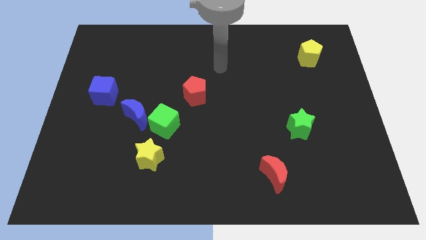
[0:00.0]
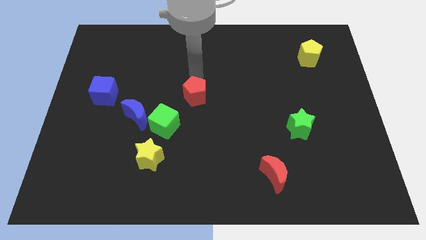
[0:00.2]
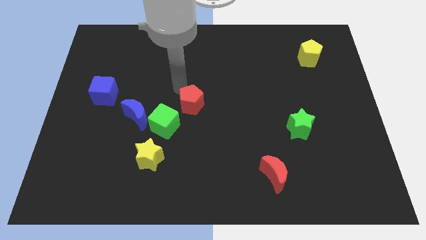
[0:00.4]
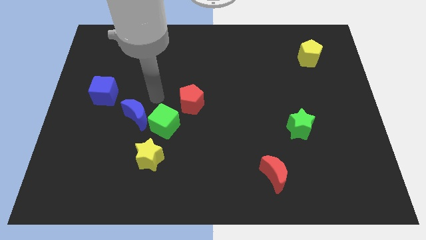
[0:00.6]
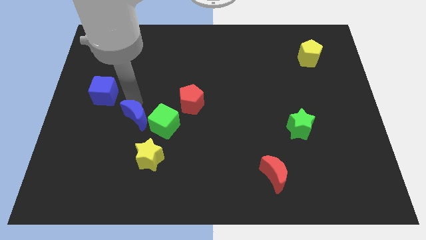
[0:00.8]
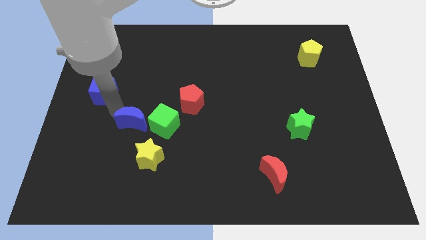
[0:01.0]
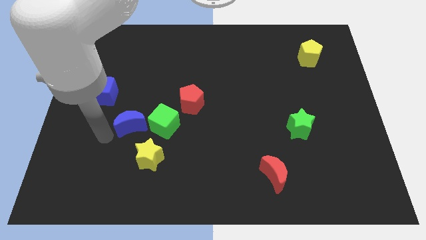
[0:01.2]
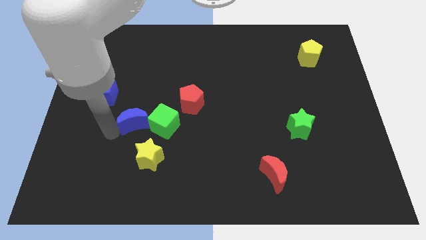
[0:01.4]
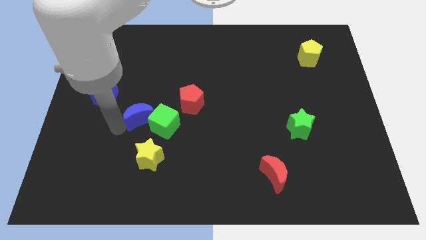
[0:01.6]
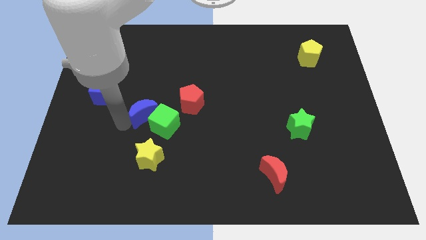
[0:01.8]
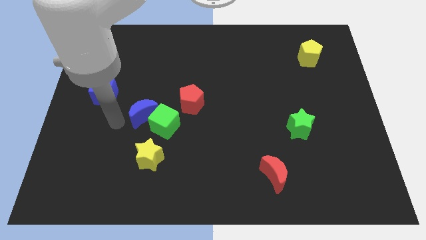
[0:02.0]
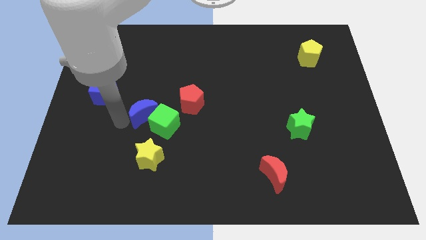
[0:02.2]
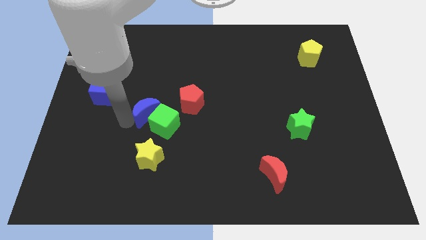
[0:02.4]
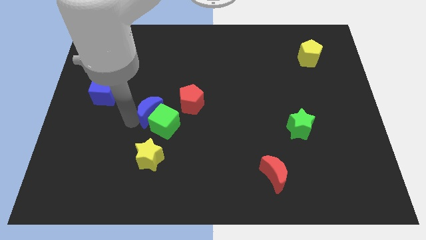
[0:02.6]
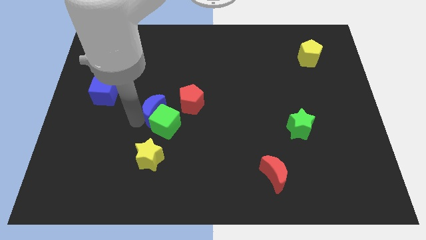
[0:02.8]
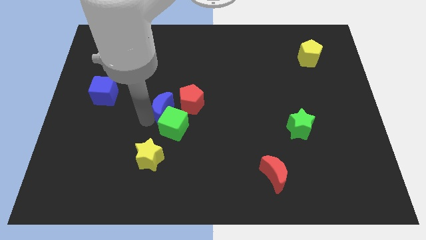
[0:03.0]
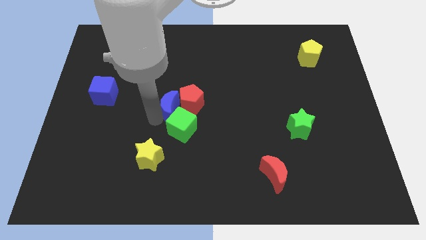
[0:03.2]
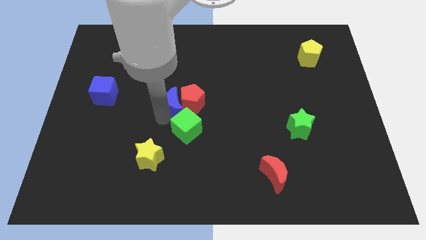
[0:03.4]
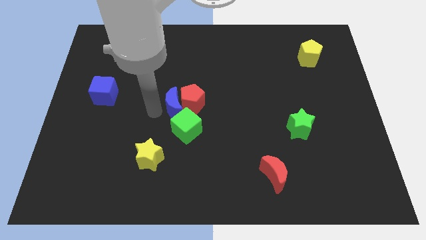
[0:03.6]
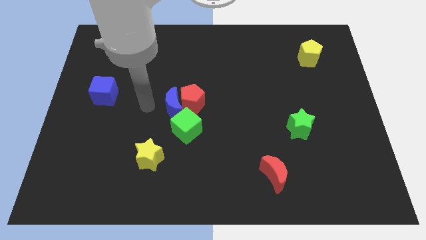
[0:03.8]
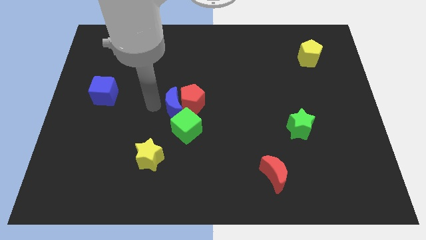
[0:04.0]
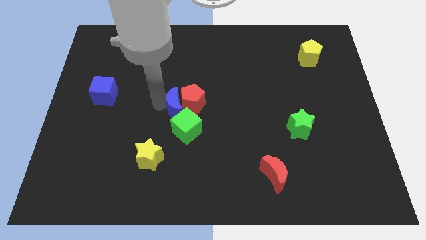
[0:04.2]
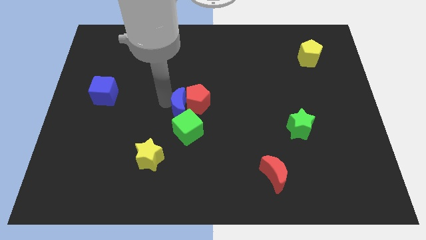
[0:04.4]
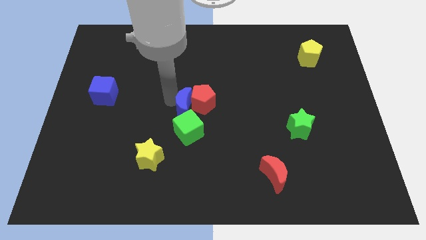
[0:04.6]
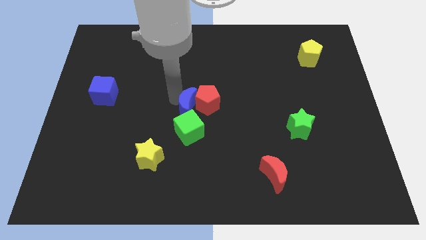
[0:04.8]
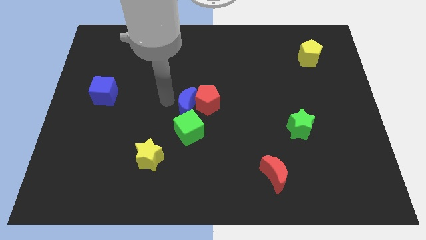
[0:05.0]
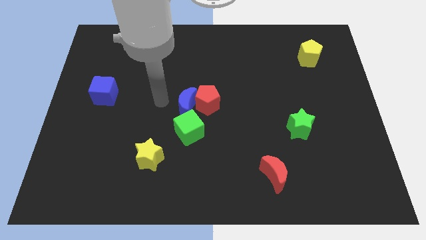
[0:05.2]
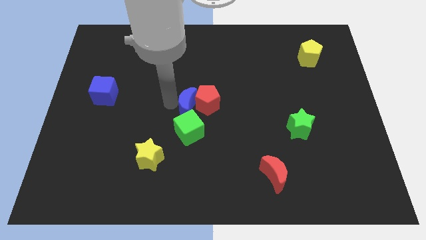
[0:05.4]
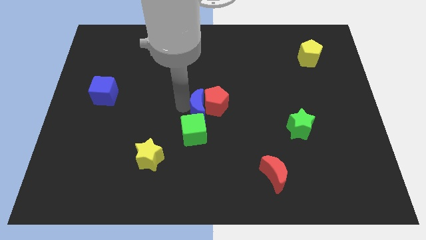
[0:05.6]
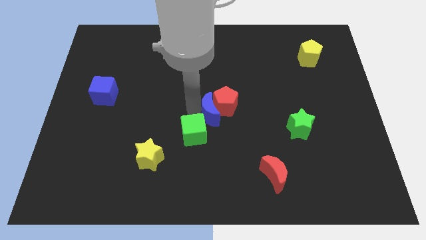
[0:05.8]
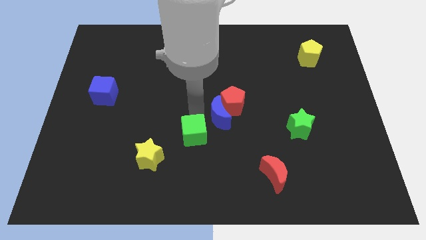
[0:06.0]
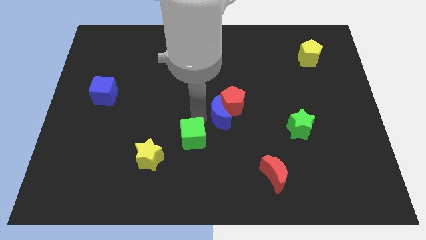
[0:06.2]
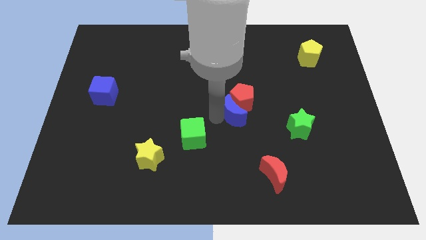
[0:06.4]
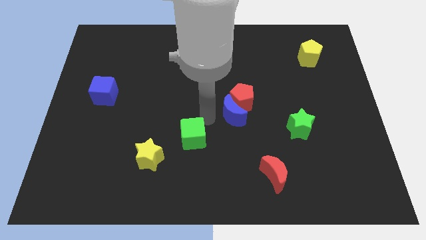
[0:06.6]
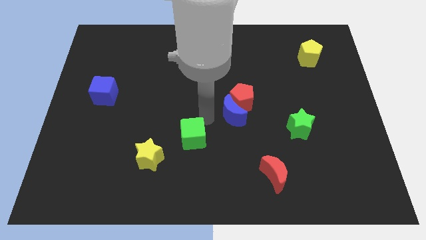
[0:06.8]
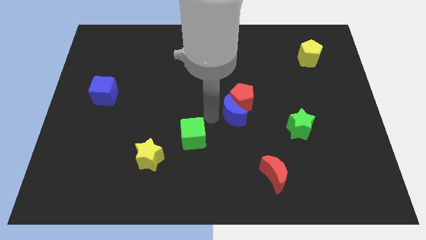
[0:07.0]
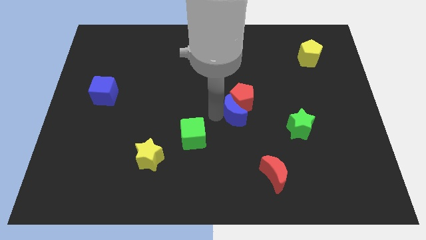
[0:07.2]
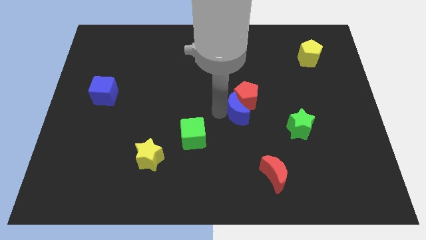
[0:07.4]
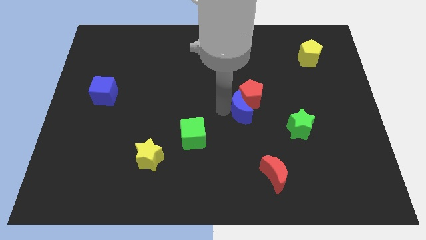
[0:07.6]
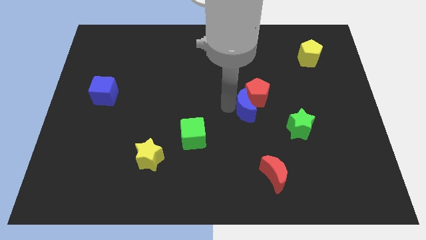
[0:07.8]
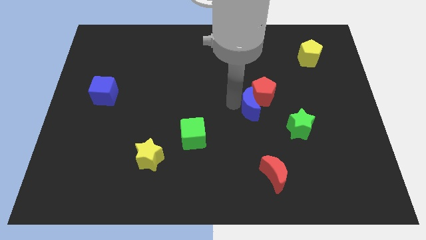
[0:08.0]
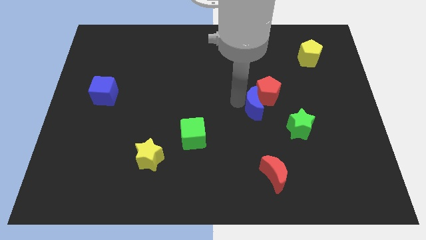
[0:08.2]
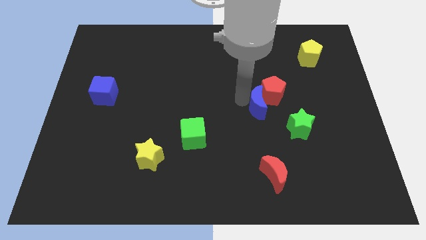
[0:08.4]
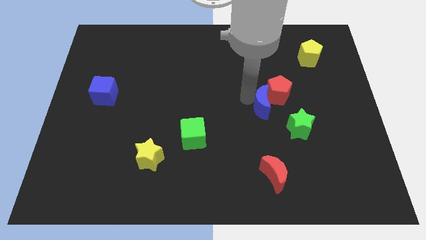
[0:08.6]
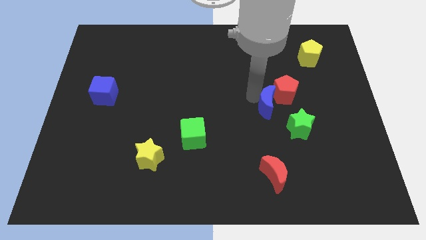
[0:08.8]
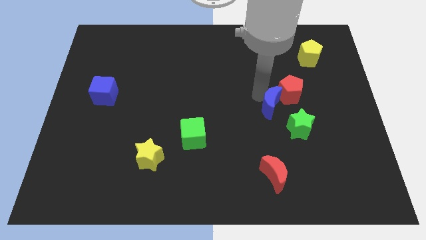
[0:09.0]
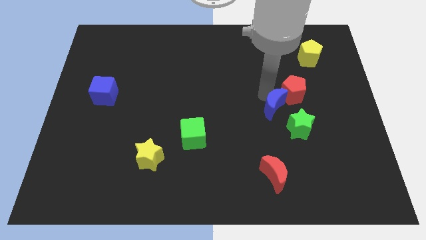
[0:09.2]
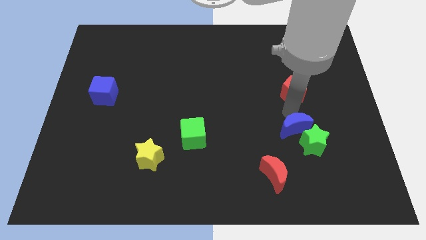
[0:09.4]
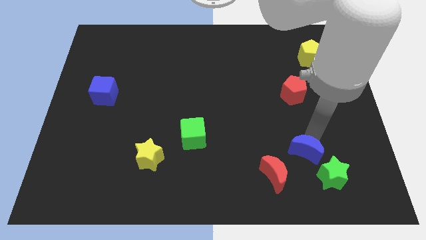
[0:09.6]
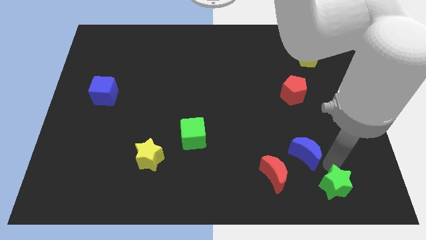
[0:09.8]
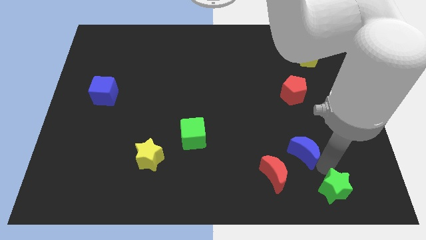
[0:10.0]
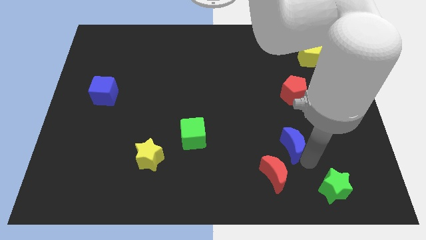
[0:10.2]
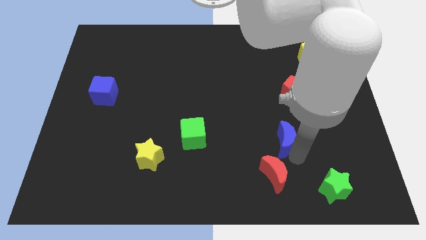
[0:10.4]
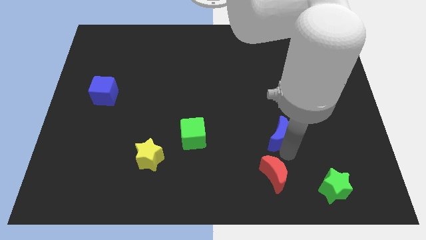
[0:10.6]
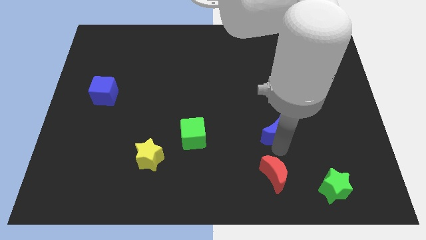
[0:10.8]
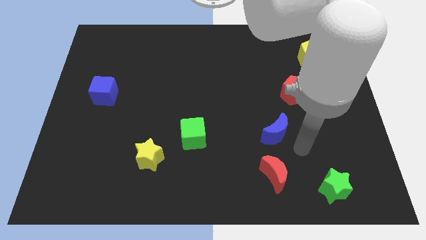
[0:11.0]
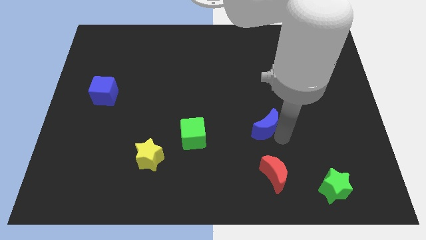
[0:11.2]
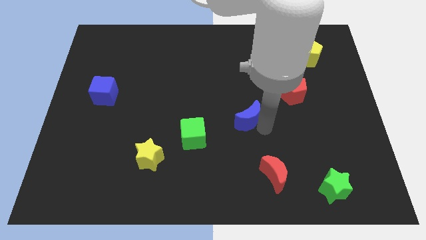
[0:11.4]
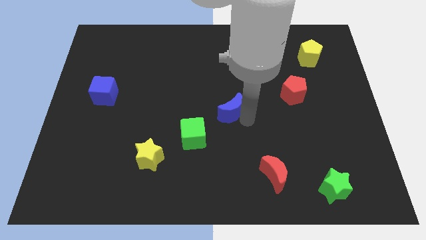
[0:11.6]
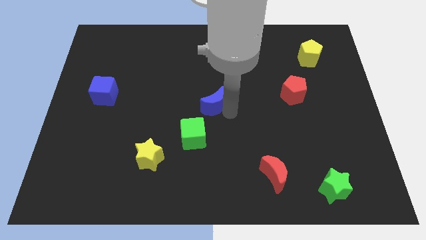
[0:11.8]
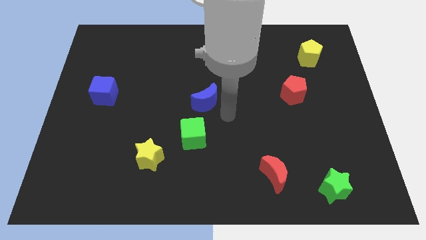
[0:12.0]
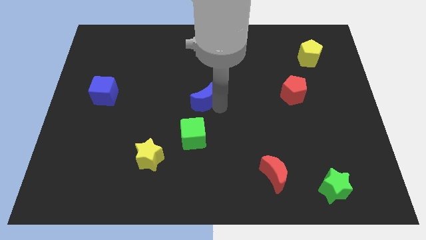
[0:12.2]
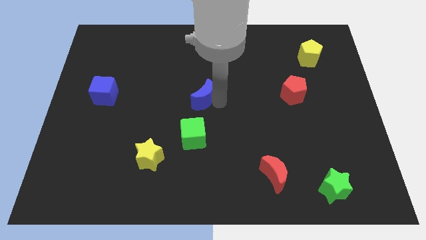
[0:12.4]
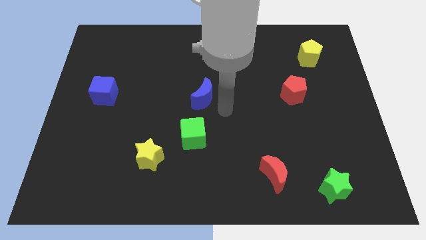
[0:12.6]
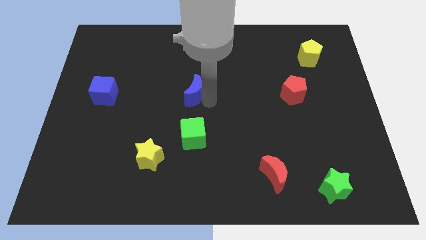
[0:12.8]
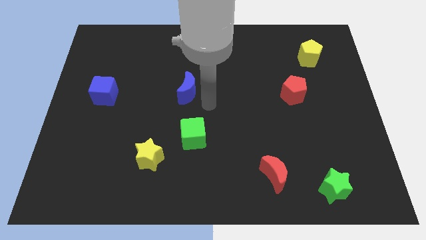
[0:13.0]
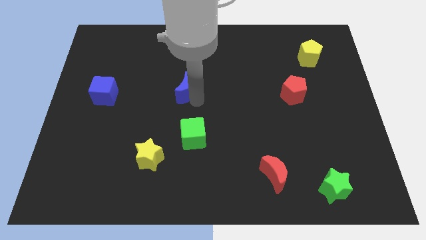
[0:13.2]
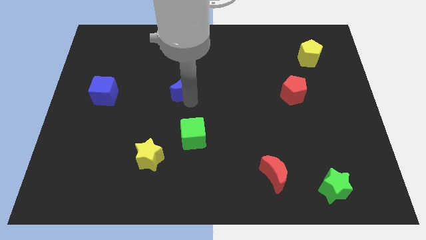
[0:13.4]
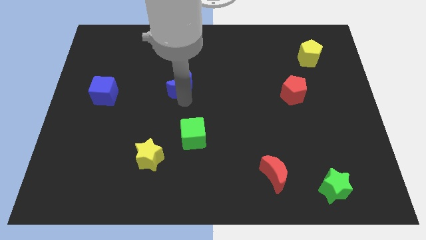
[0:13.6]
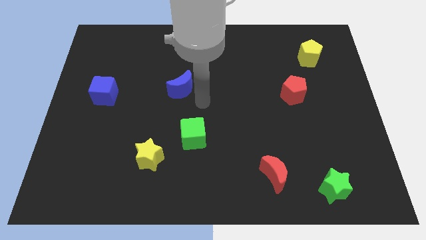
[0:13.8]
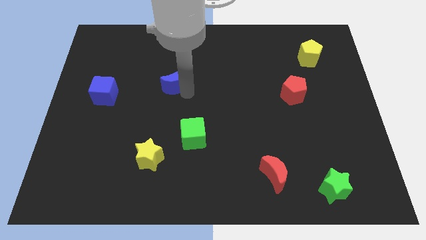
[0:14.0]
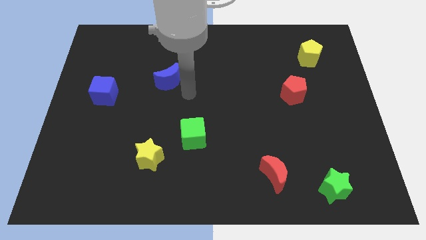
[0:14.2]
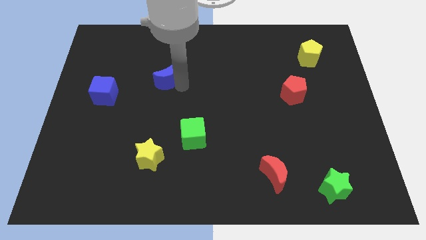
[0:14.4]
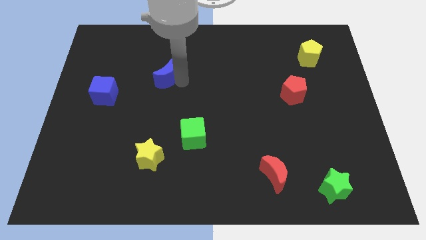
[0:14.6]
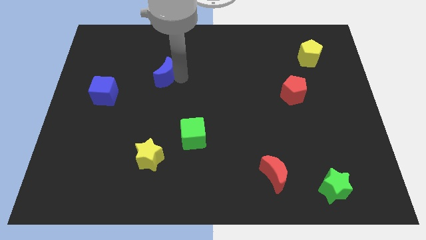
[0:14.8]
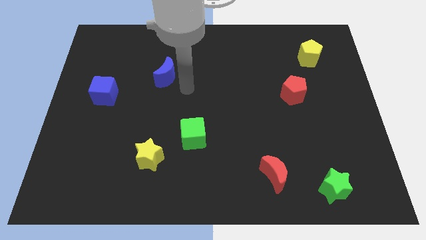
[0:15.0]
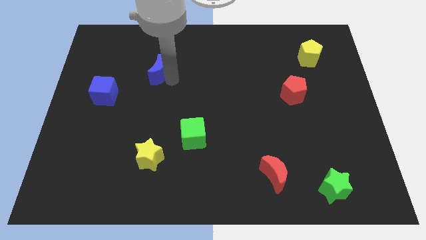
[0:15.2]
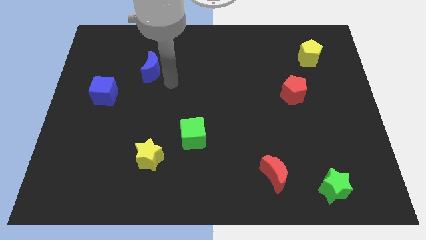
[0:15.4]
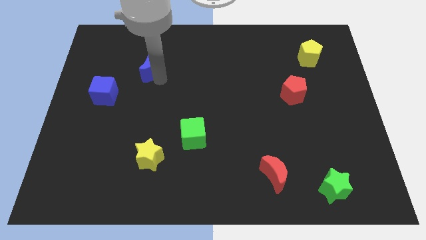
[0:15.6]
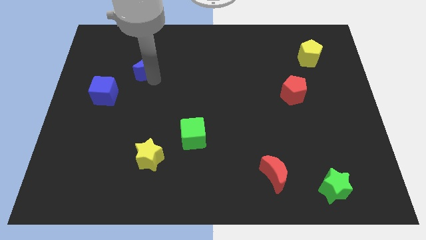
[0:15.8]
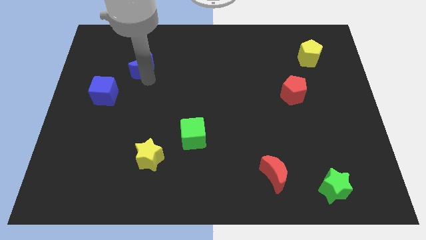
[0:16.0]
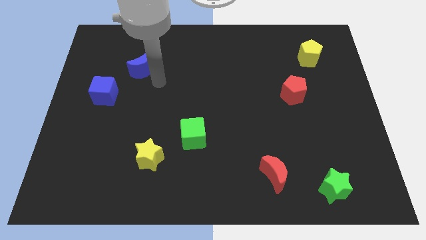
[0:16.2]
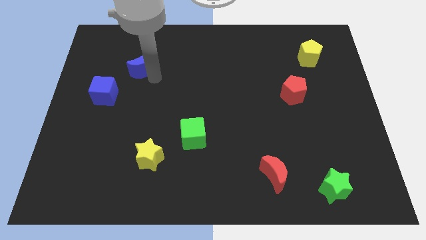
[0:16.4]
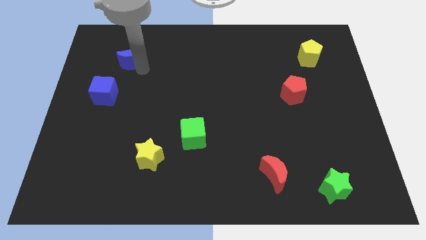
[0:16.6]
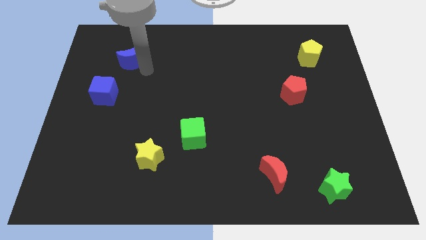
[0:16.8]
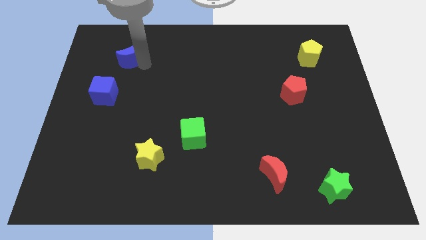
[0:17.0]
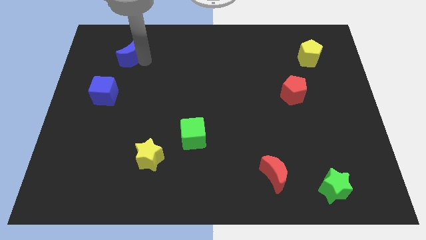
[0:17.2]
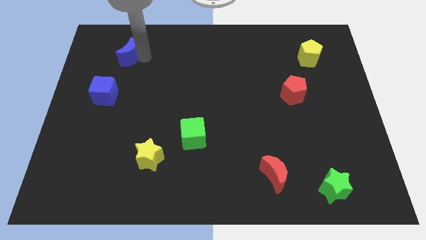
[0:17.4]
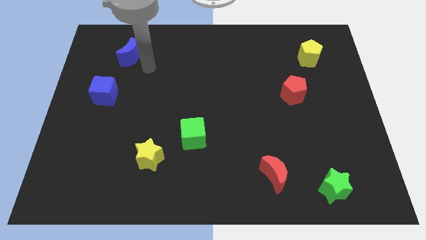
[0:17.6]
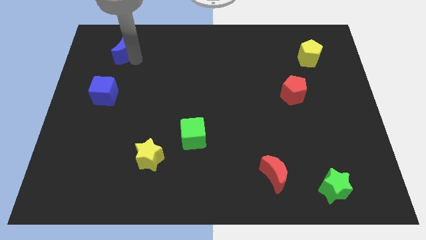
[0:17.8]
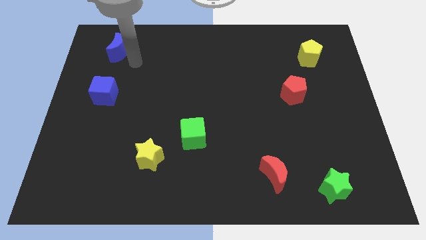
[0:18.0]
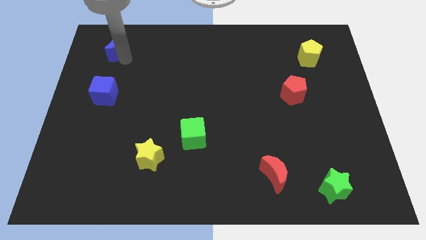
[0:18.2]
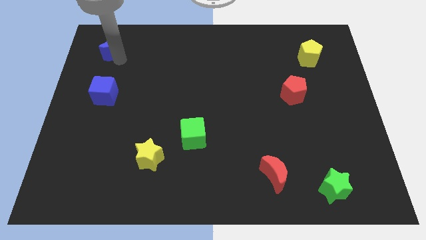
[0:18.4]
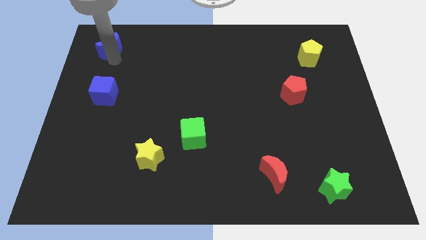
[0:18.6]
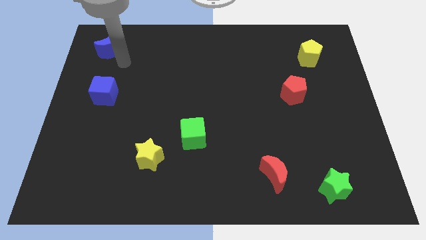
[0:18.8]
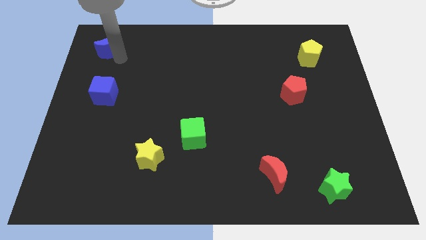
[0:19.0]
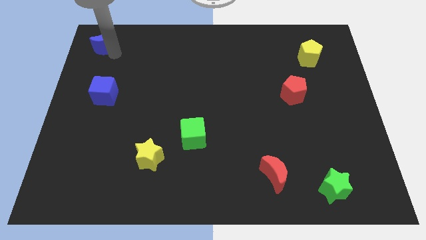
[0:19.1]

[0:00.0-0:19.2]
move the blue moon to the top left of the board
